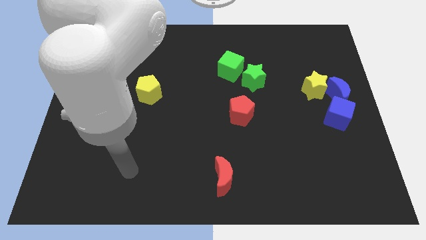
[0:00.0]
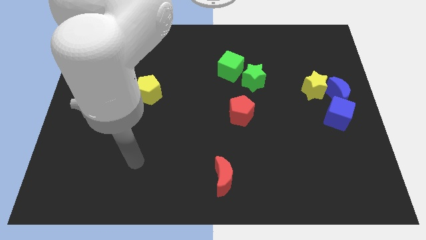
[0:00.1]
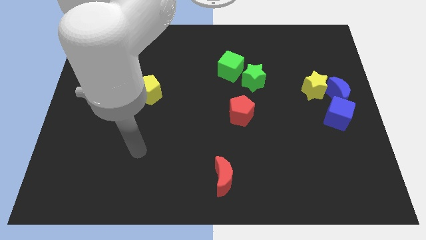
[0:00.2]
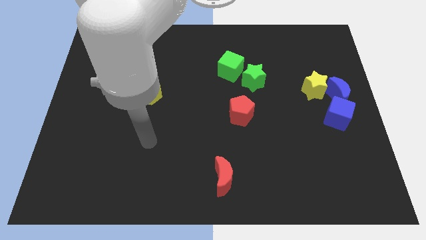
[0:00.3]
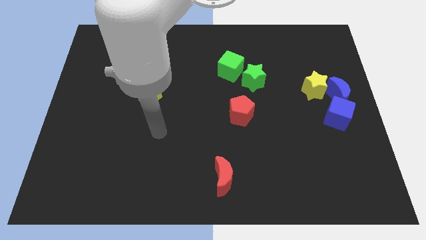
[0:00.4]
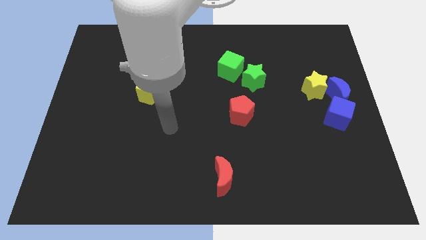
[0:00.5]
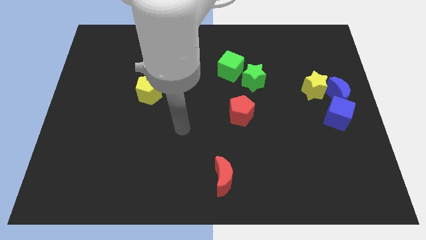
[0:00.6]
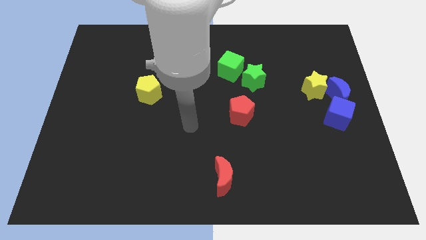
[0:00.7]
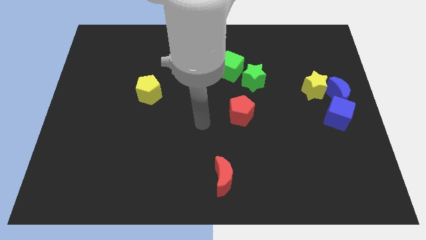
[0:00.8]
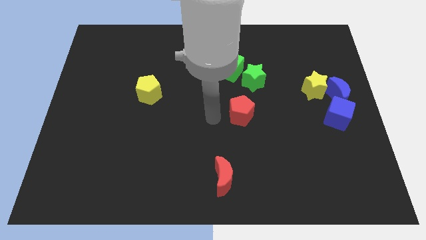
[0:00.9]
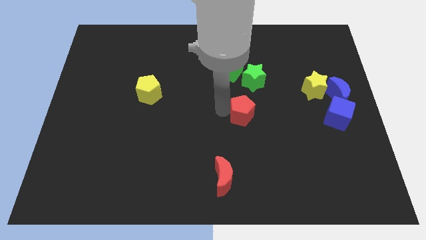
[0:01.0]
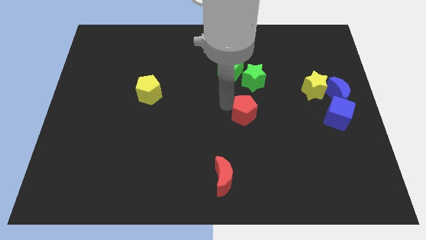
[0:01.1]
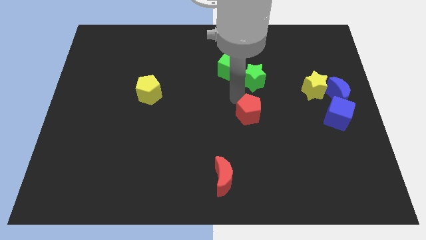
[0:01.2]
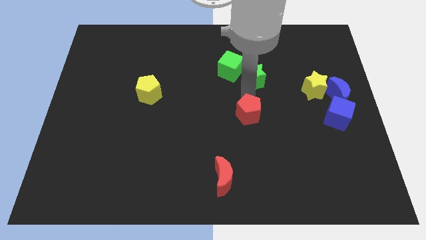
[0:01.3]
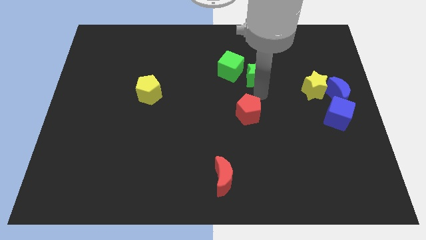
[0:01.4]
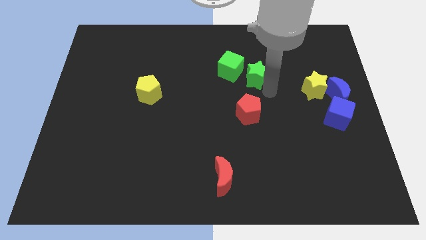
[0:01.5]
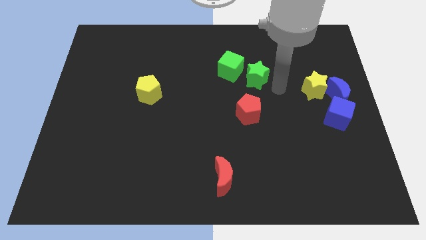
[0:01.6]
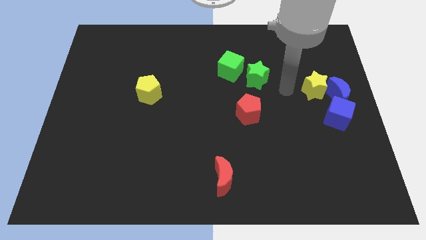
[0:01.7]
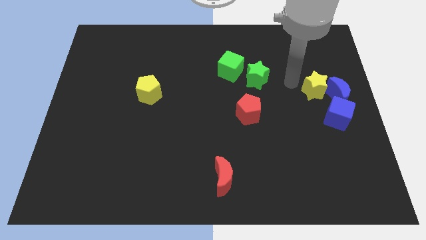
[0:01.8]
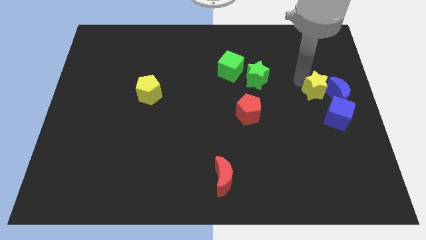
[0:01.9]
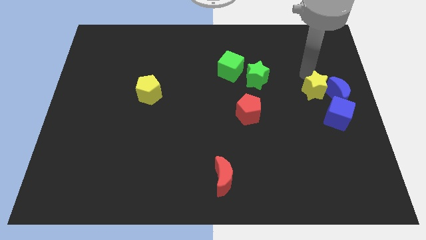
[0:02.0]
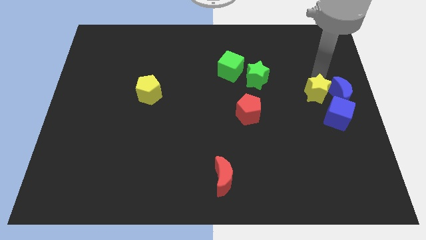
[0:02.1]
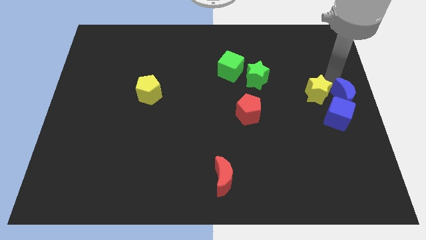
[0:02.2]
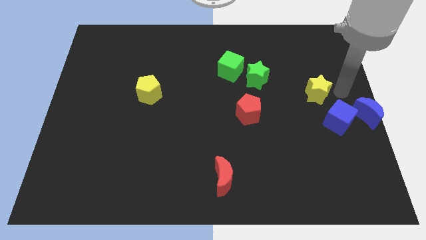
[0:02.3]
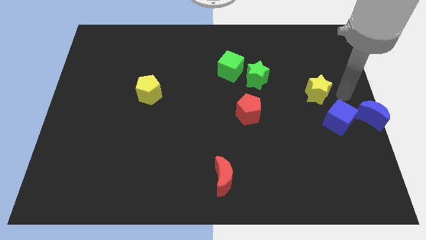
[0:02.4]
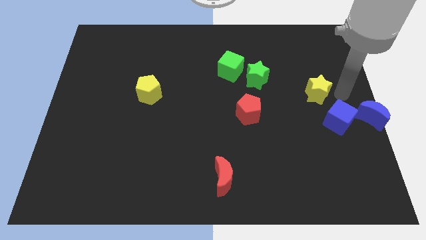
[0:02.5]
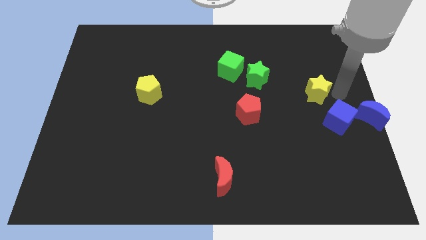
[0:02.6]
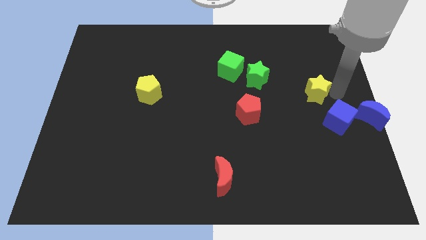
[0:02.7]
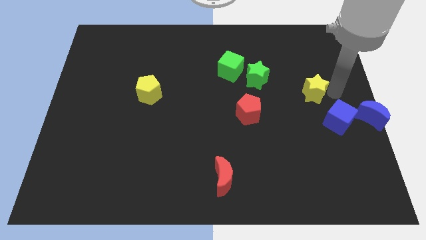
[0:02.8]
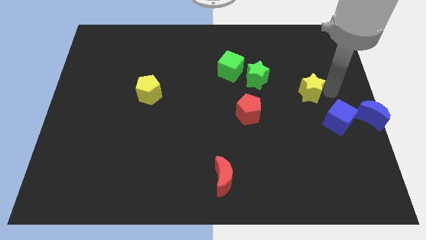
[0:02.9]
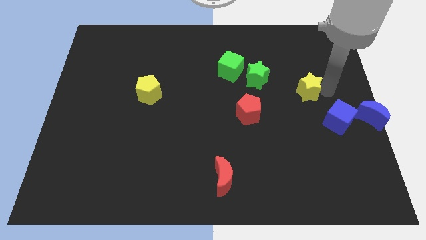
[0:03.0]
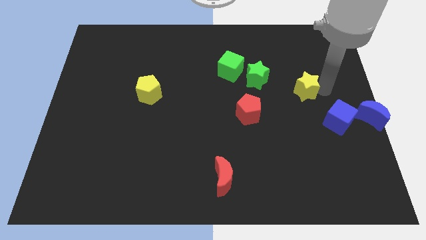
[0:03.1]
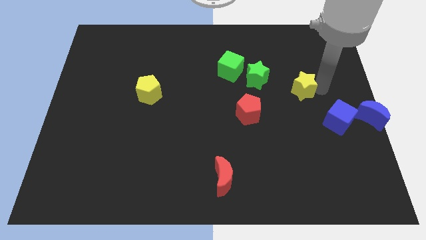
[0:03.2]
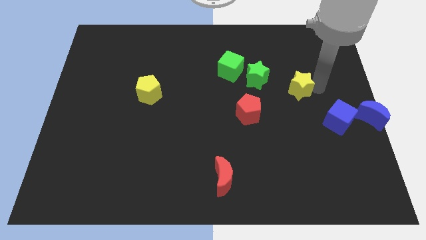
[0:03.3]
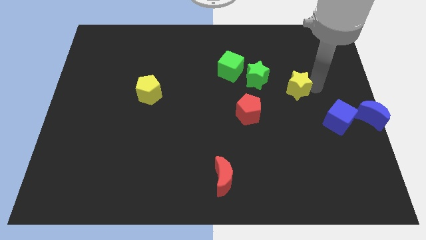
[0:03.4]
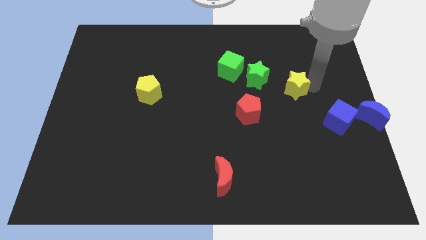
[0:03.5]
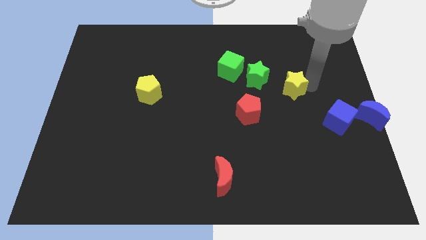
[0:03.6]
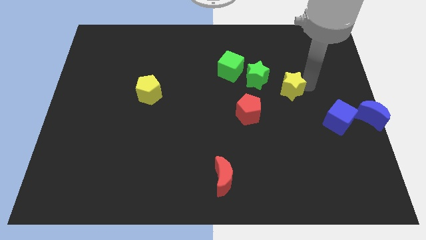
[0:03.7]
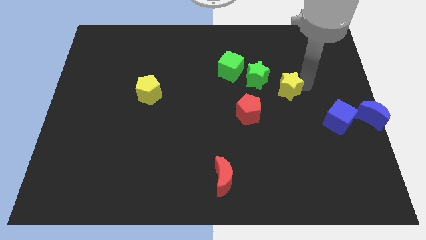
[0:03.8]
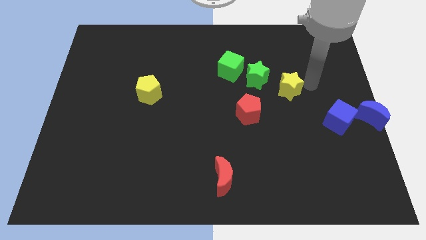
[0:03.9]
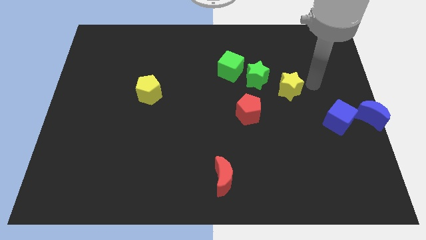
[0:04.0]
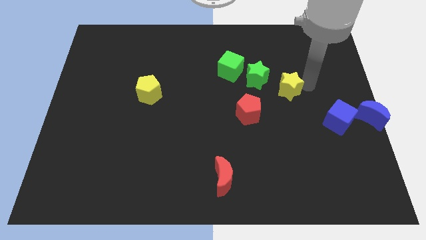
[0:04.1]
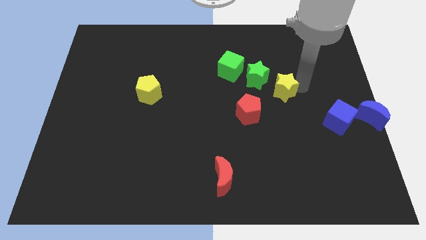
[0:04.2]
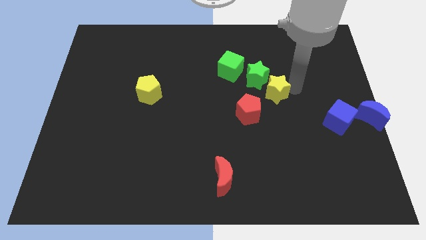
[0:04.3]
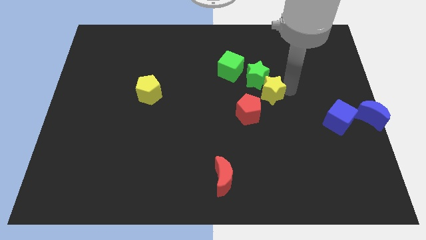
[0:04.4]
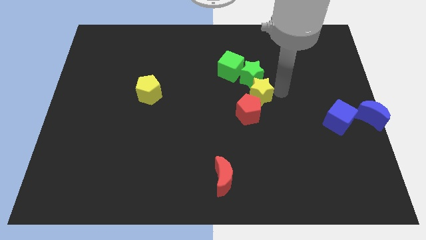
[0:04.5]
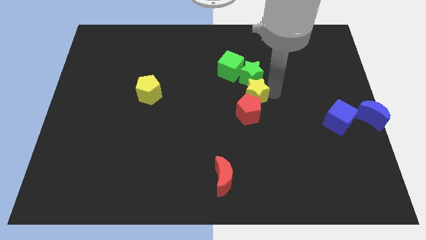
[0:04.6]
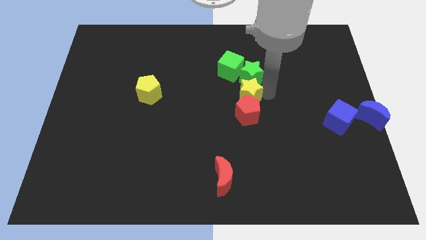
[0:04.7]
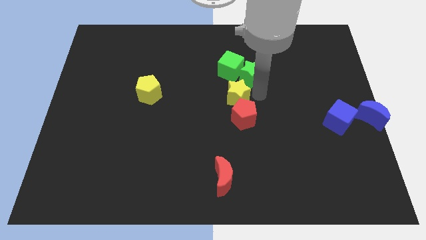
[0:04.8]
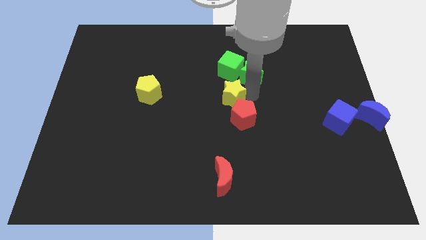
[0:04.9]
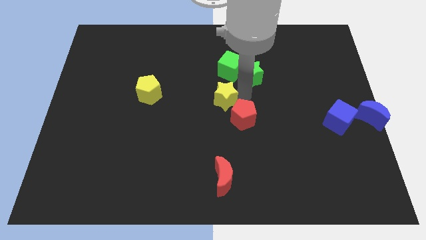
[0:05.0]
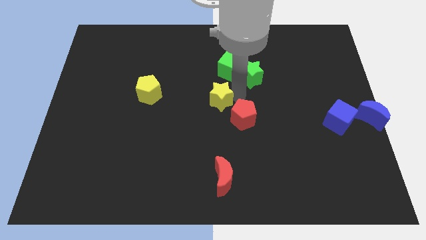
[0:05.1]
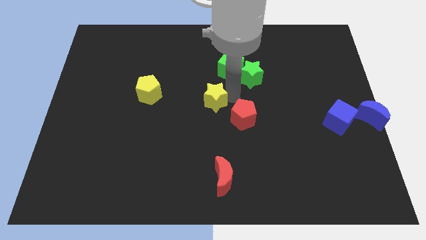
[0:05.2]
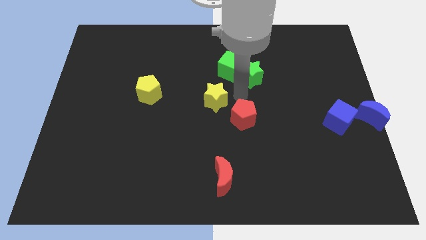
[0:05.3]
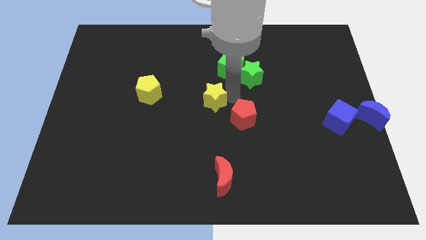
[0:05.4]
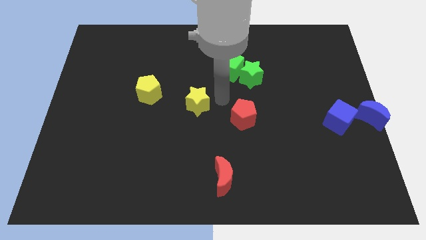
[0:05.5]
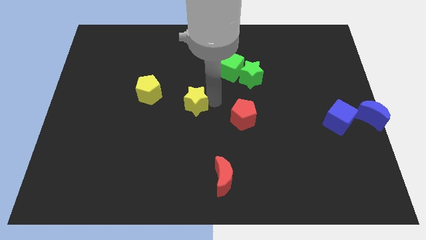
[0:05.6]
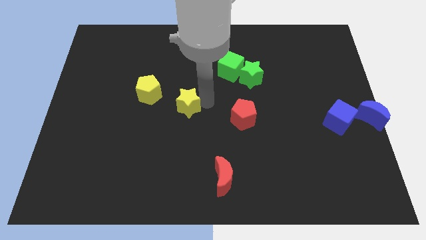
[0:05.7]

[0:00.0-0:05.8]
slide the yellow star diagonally down and to the right of the yellow pentagon

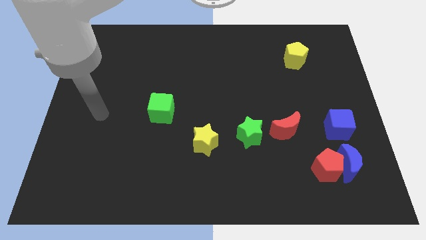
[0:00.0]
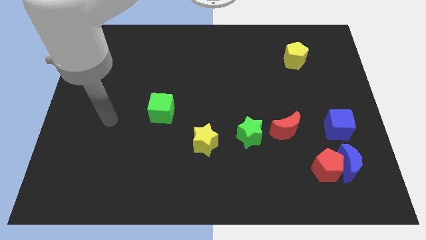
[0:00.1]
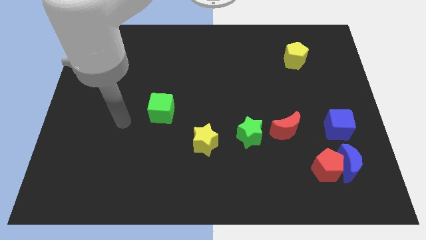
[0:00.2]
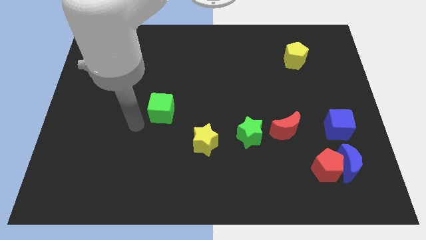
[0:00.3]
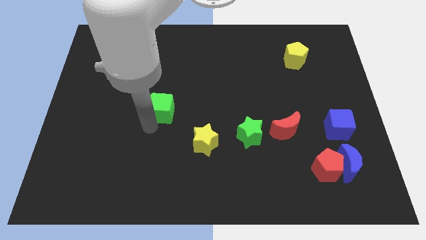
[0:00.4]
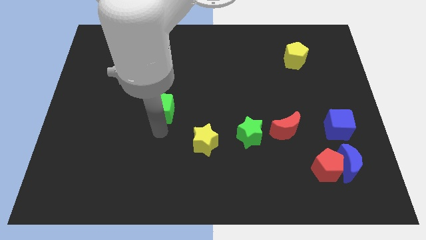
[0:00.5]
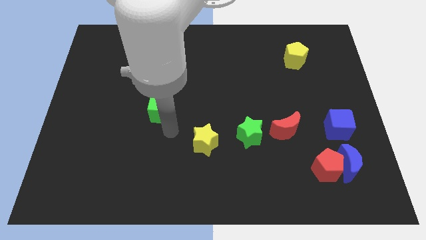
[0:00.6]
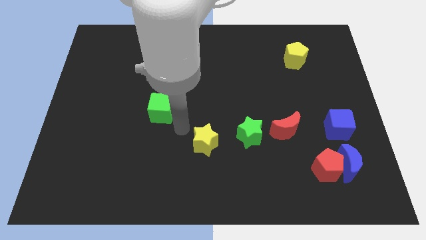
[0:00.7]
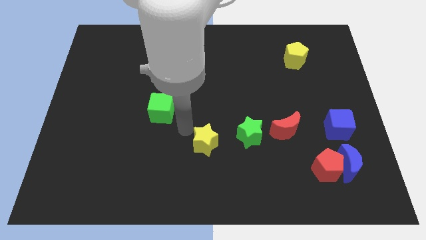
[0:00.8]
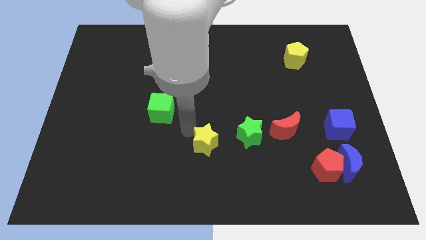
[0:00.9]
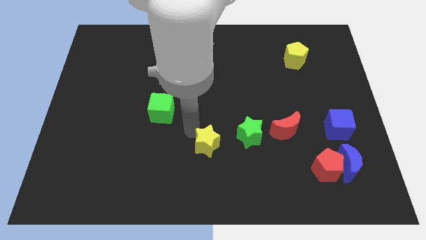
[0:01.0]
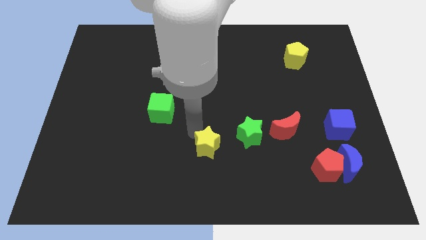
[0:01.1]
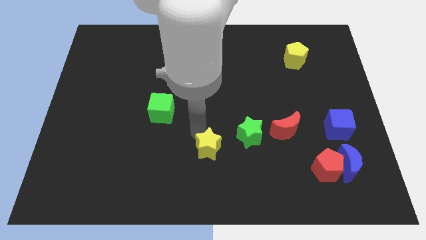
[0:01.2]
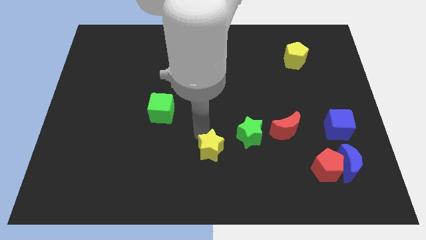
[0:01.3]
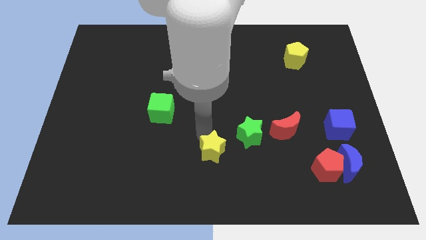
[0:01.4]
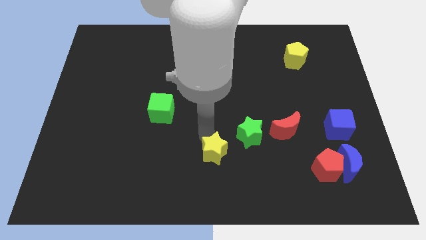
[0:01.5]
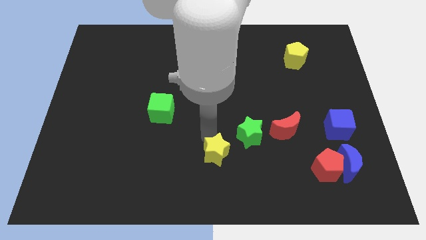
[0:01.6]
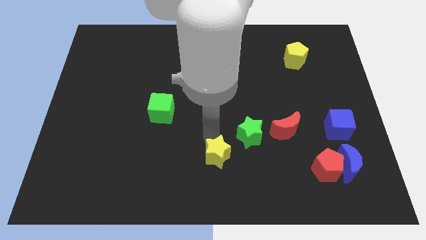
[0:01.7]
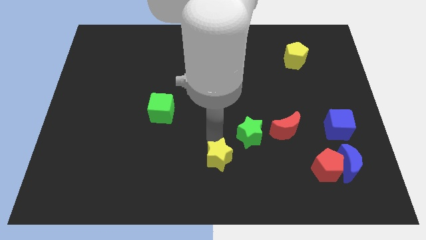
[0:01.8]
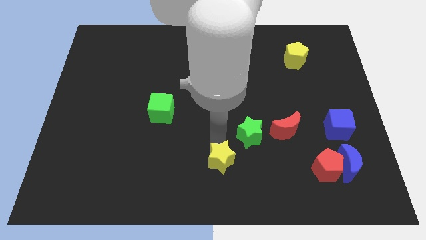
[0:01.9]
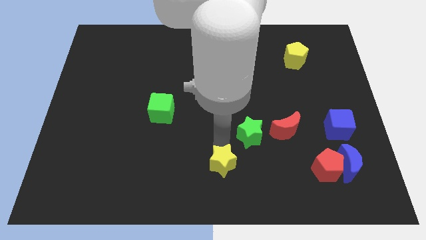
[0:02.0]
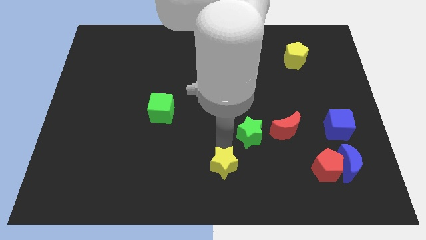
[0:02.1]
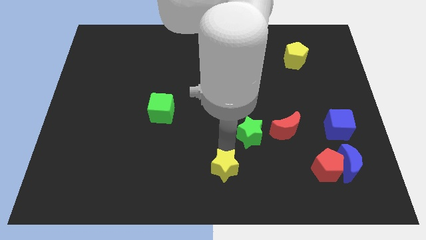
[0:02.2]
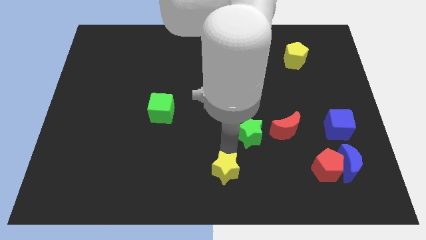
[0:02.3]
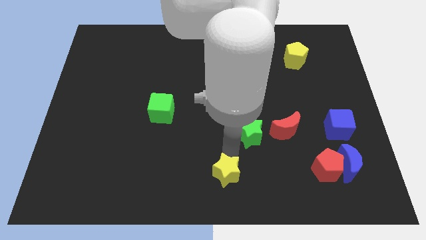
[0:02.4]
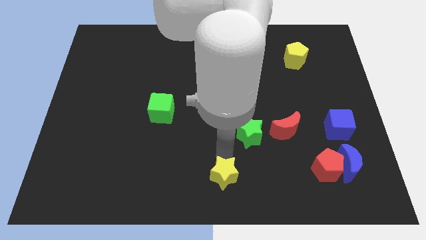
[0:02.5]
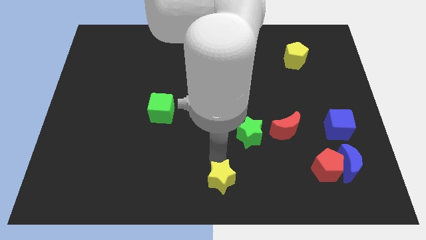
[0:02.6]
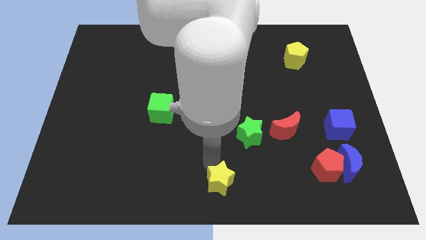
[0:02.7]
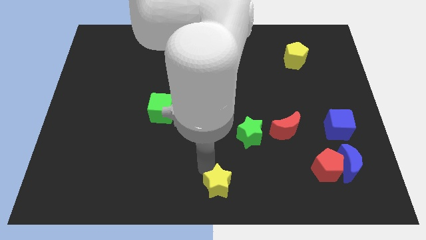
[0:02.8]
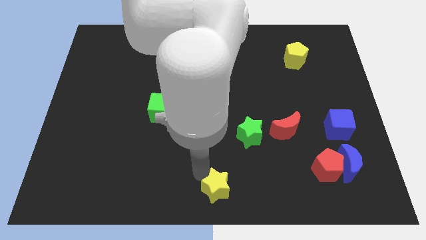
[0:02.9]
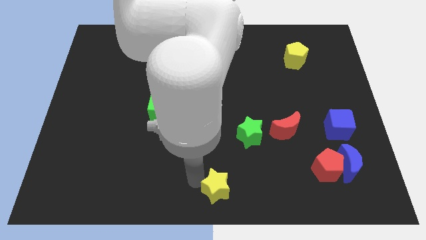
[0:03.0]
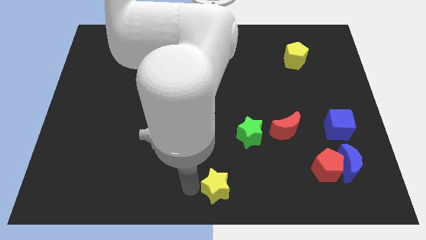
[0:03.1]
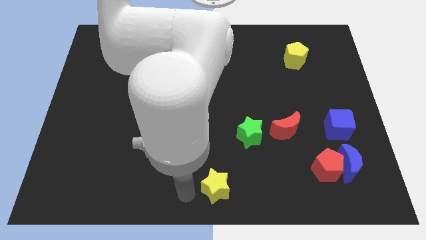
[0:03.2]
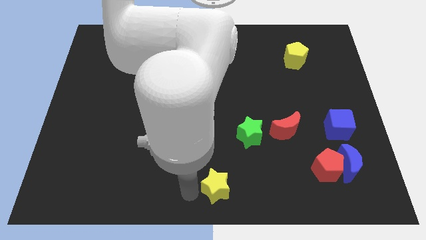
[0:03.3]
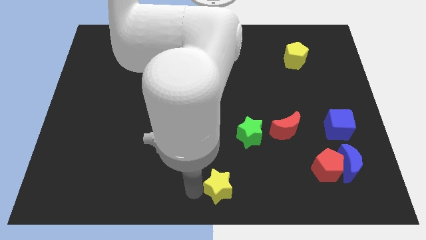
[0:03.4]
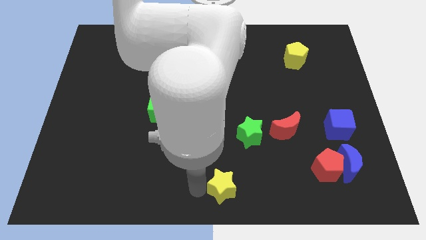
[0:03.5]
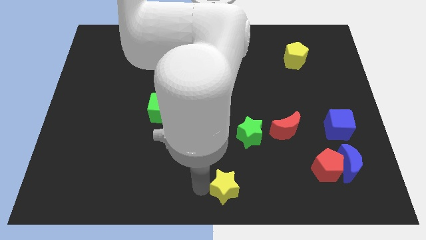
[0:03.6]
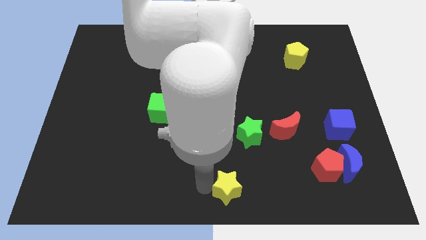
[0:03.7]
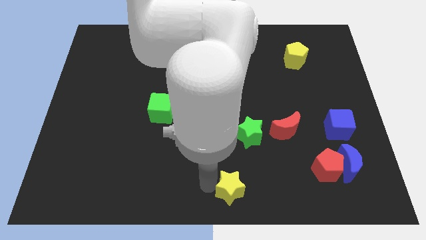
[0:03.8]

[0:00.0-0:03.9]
put the yellow star below the green star
